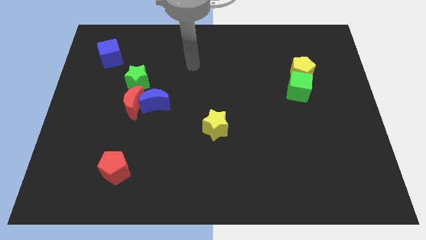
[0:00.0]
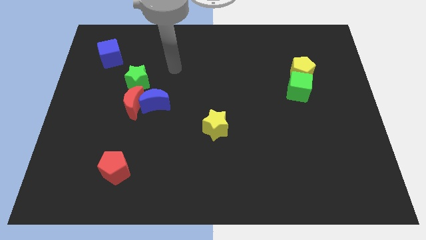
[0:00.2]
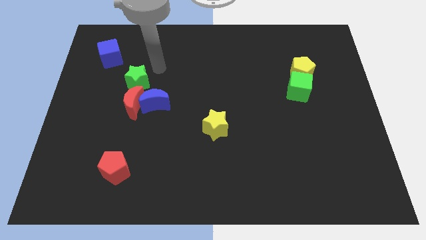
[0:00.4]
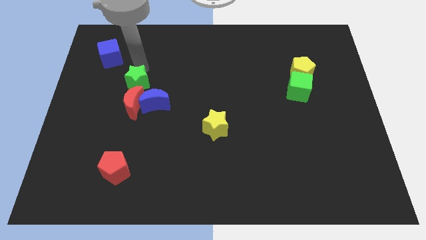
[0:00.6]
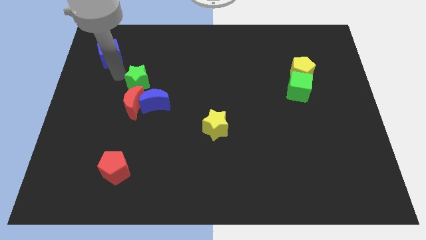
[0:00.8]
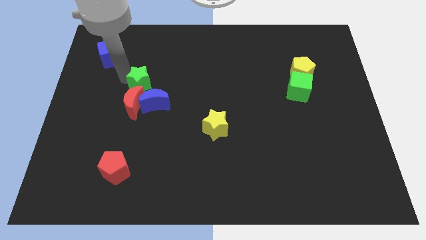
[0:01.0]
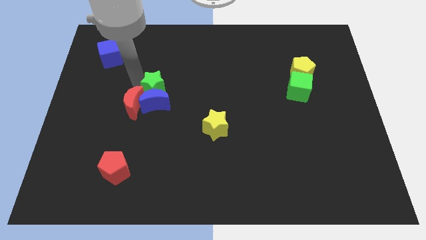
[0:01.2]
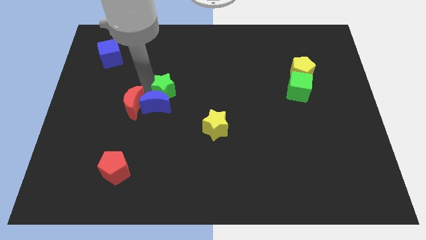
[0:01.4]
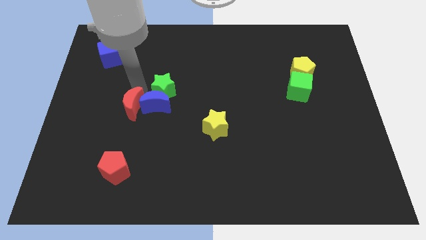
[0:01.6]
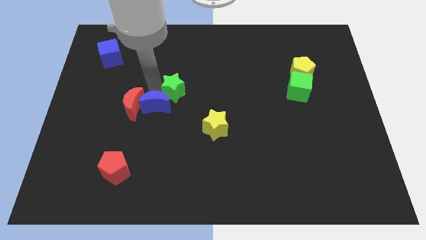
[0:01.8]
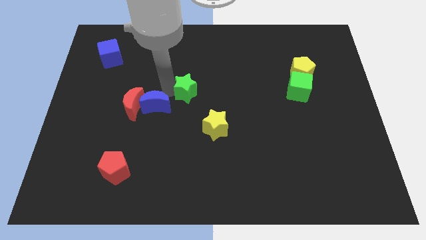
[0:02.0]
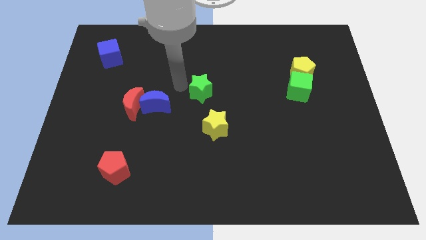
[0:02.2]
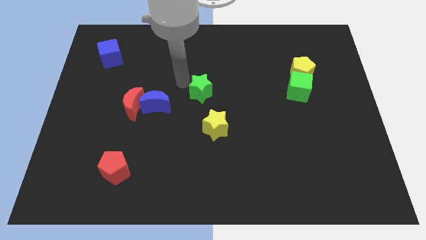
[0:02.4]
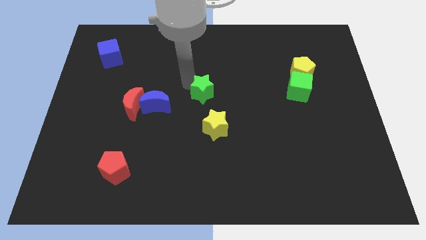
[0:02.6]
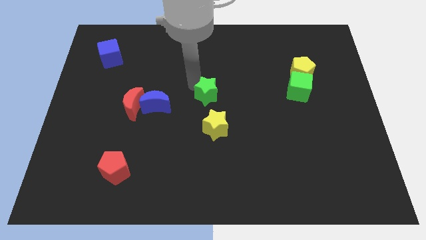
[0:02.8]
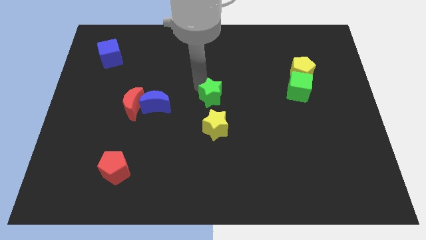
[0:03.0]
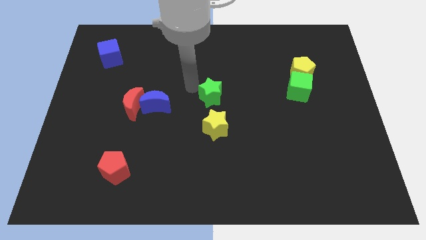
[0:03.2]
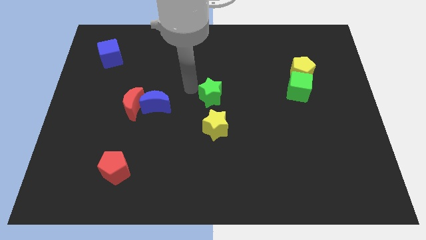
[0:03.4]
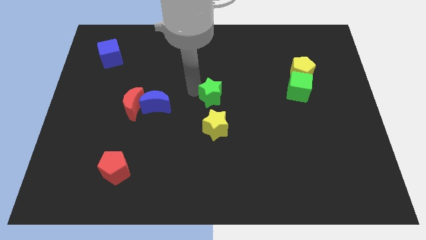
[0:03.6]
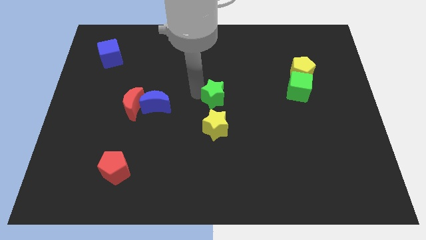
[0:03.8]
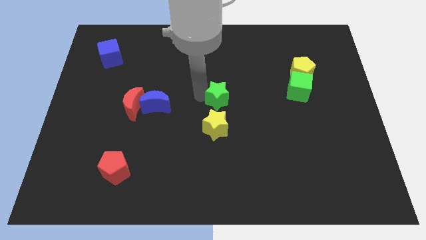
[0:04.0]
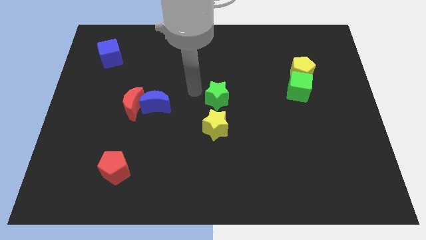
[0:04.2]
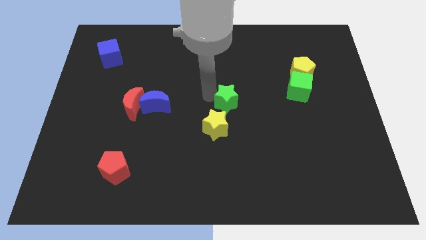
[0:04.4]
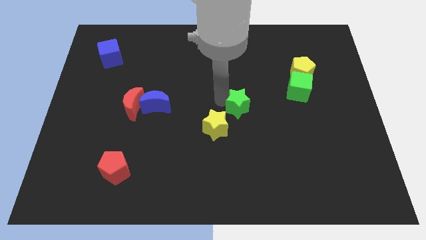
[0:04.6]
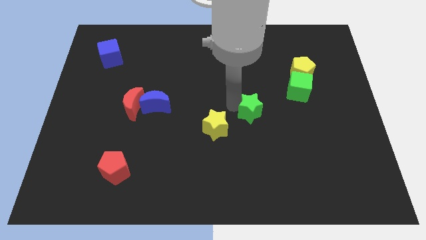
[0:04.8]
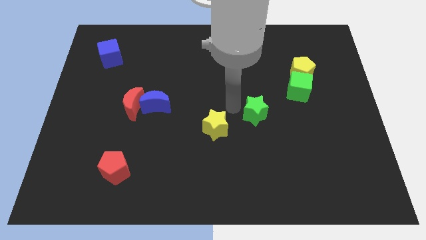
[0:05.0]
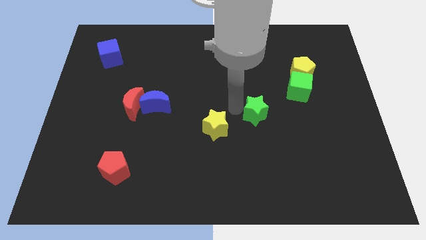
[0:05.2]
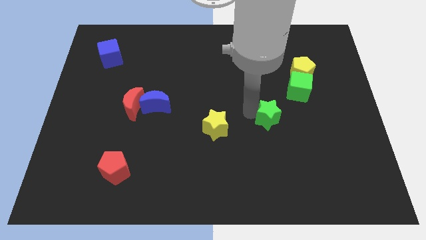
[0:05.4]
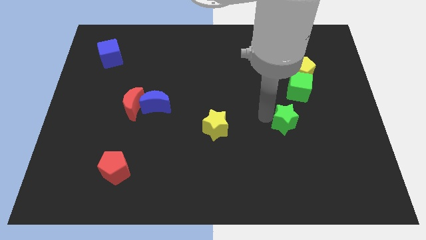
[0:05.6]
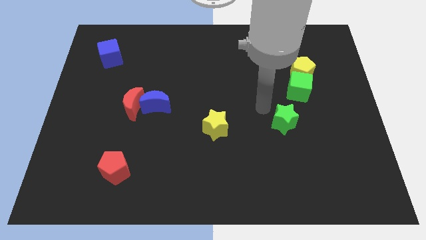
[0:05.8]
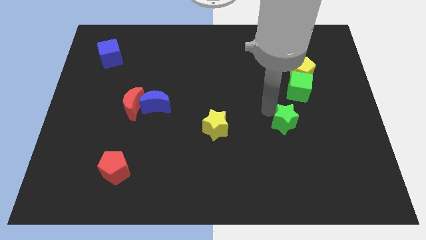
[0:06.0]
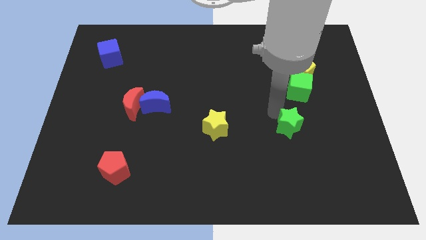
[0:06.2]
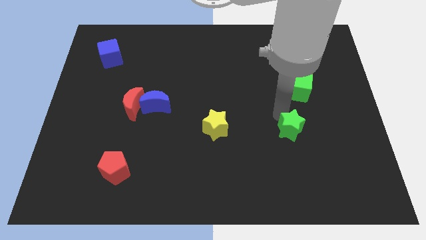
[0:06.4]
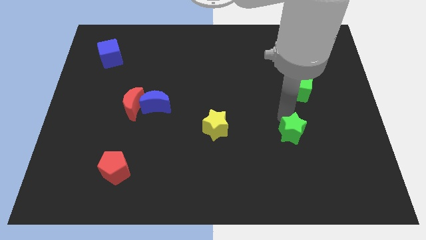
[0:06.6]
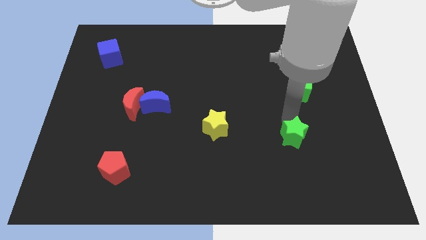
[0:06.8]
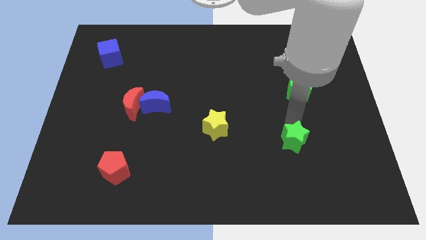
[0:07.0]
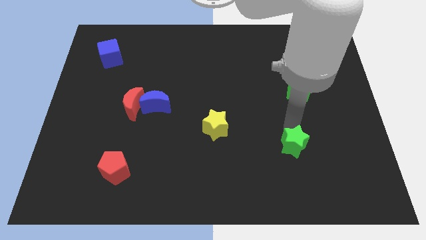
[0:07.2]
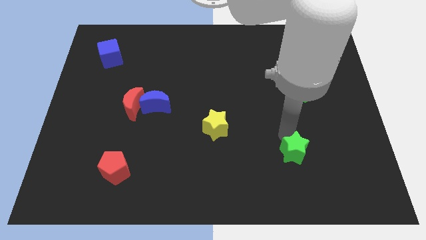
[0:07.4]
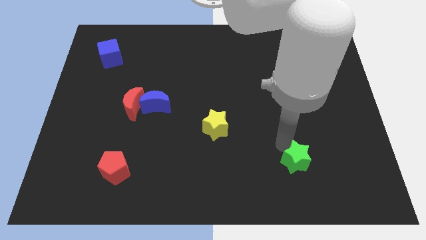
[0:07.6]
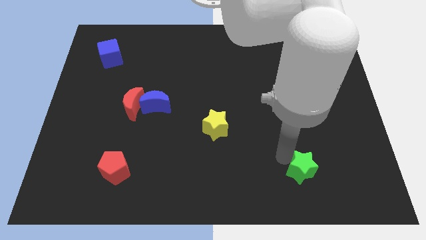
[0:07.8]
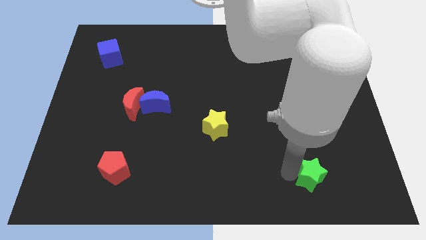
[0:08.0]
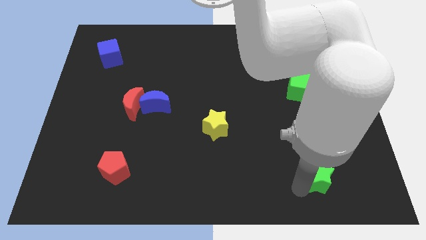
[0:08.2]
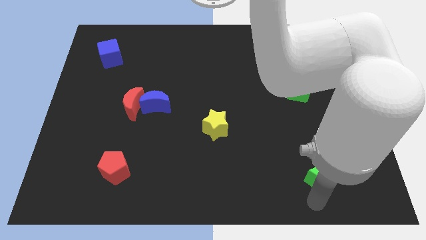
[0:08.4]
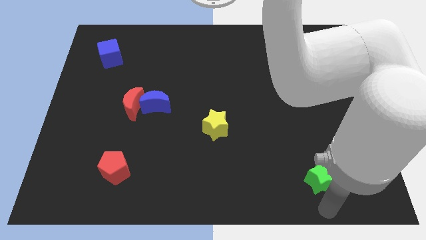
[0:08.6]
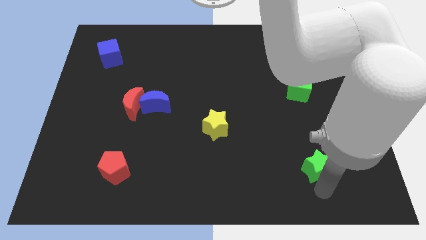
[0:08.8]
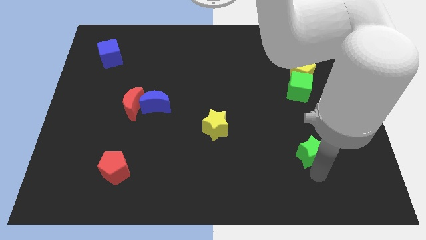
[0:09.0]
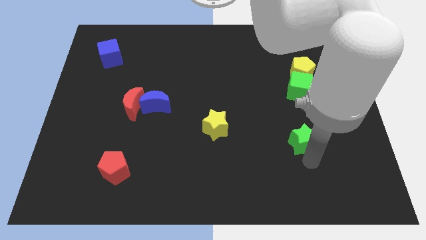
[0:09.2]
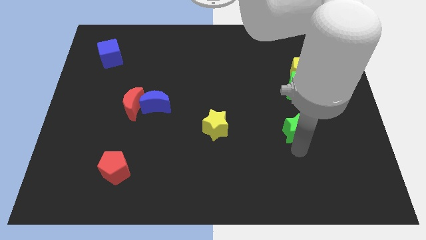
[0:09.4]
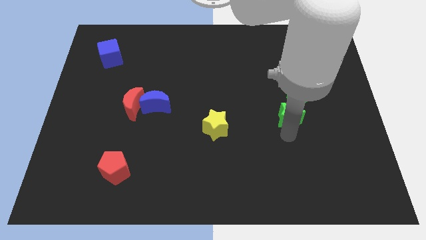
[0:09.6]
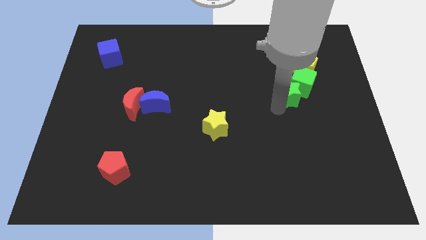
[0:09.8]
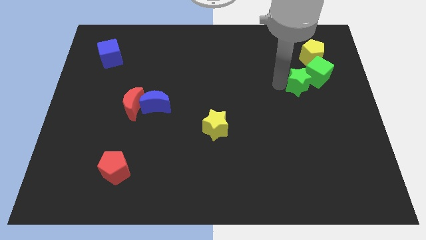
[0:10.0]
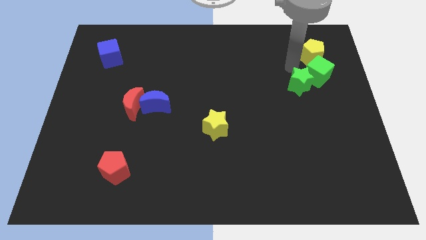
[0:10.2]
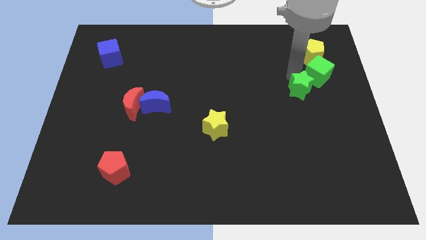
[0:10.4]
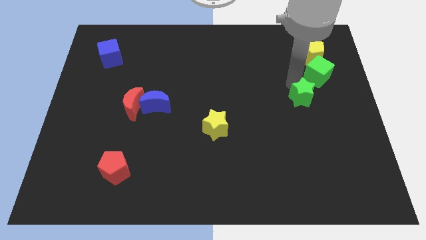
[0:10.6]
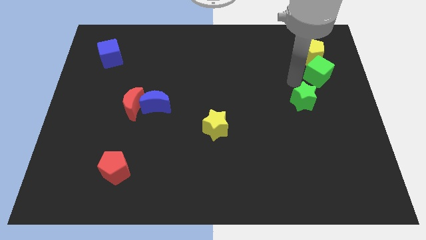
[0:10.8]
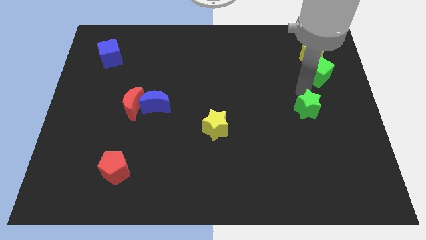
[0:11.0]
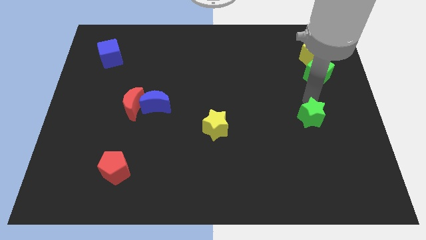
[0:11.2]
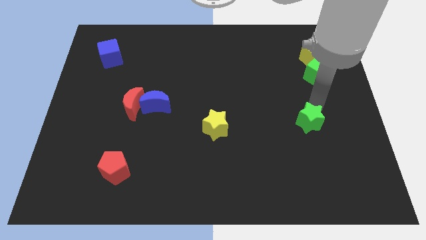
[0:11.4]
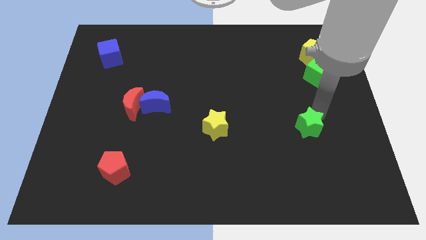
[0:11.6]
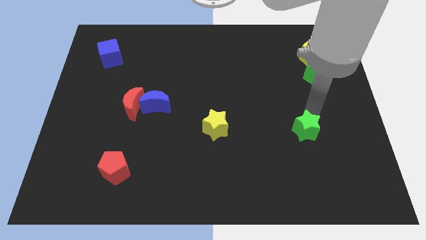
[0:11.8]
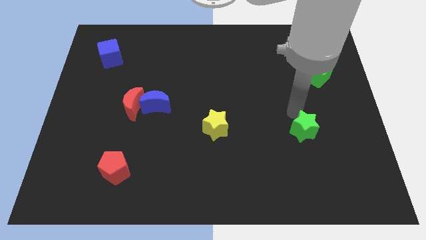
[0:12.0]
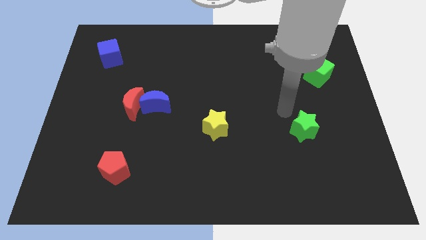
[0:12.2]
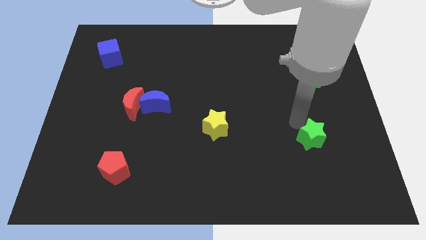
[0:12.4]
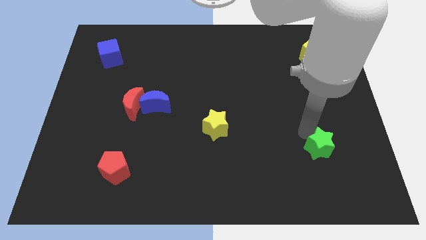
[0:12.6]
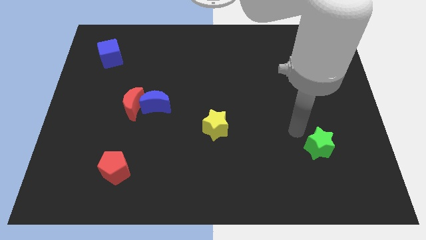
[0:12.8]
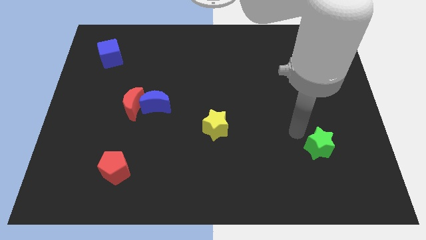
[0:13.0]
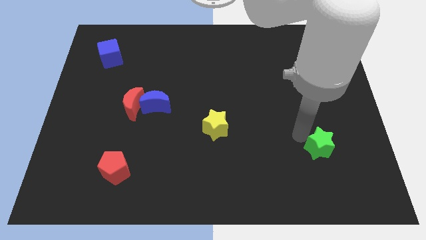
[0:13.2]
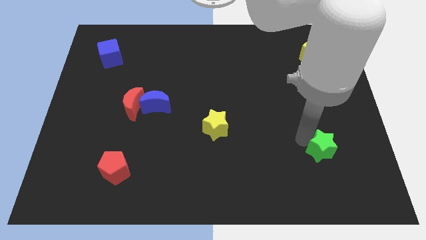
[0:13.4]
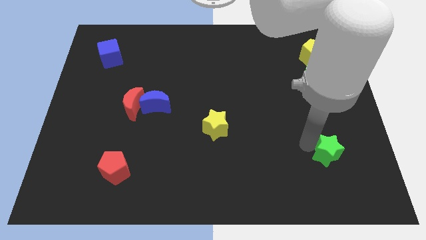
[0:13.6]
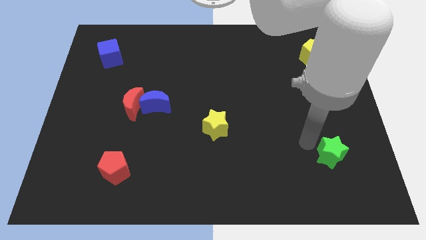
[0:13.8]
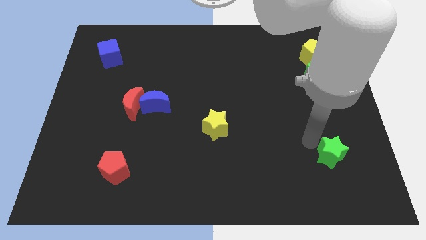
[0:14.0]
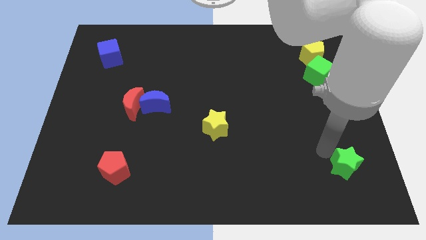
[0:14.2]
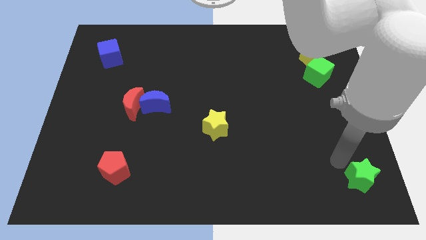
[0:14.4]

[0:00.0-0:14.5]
move the green star to the bottom right

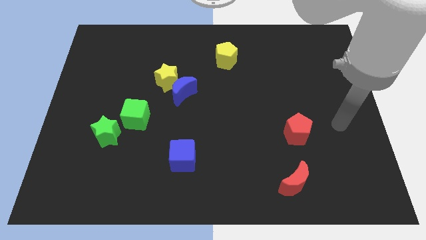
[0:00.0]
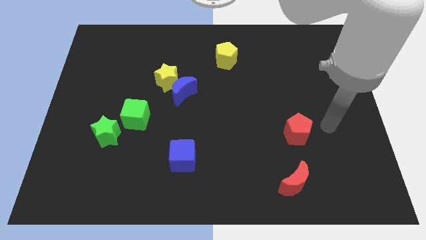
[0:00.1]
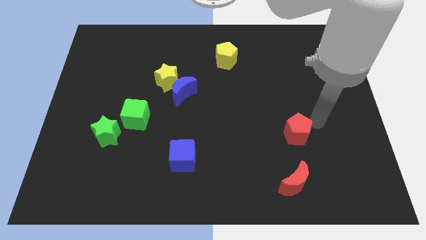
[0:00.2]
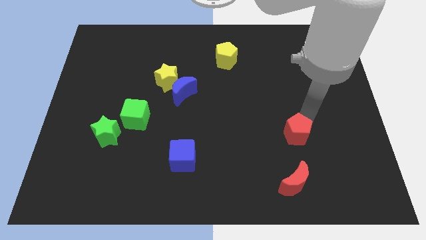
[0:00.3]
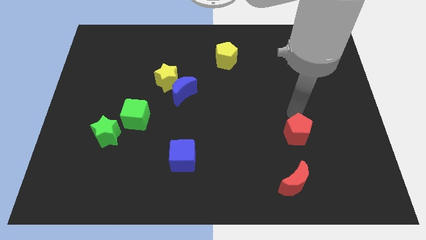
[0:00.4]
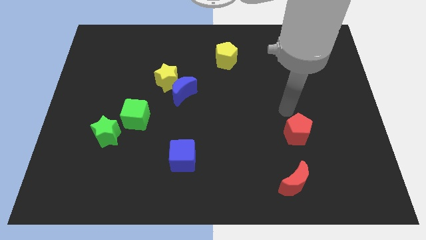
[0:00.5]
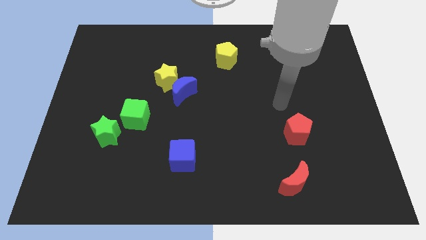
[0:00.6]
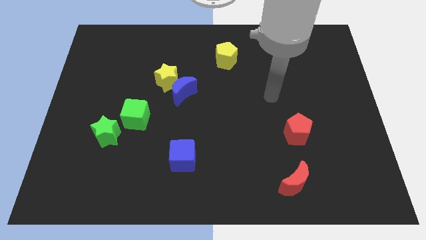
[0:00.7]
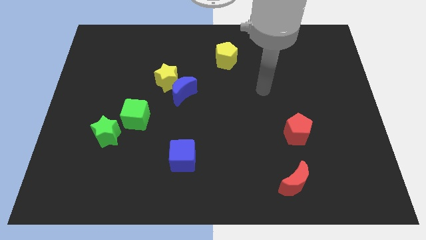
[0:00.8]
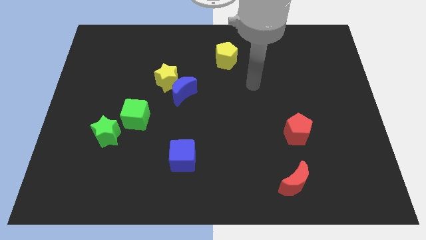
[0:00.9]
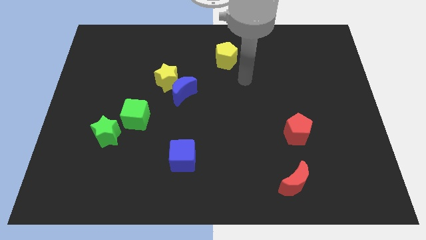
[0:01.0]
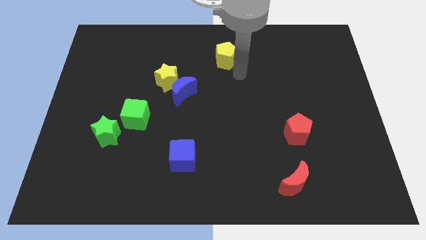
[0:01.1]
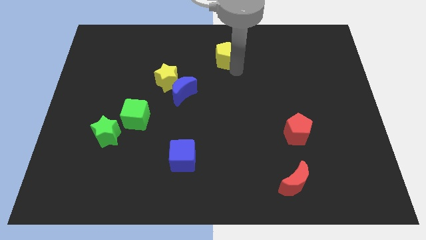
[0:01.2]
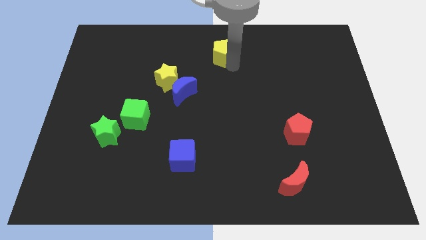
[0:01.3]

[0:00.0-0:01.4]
slide the yellow pentagon to the top
